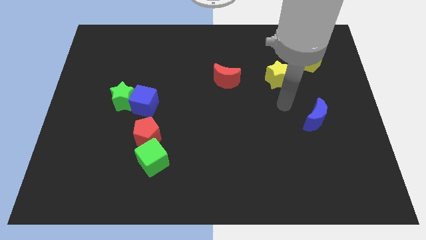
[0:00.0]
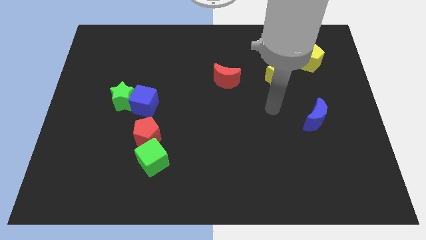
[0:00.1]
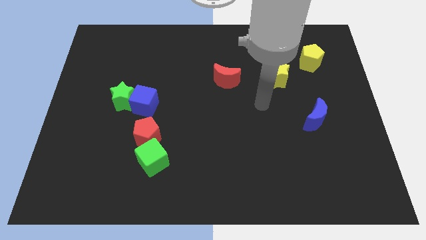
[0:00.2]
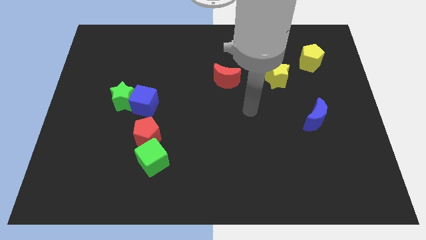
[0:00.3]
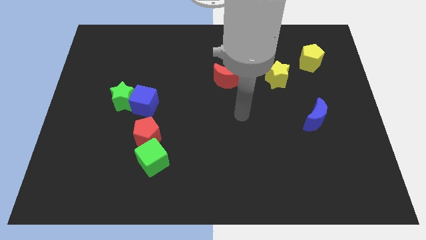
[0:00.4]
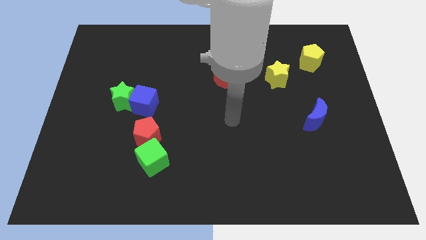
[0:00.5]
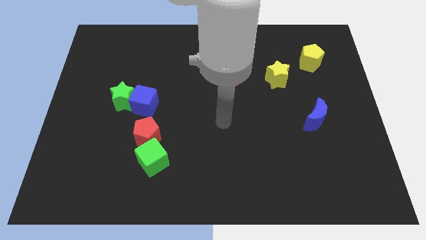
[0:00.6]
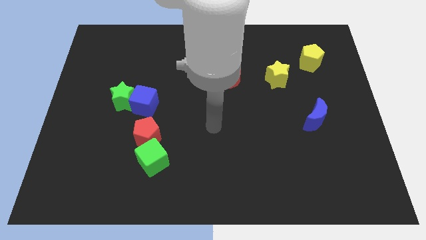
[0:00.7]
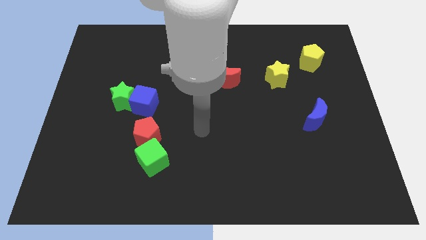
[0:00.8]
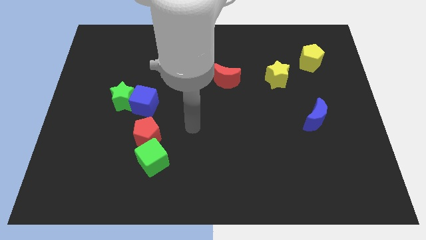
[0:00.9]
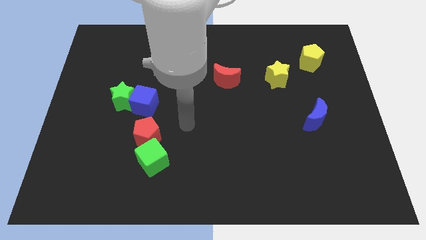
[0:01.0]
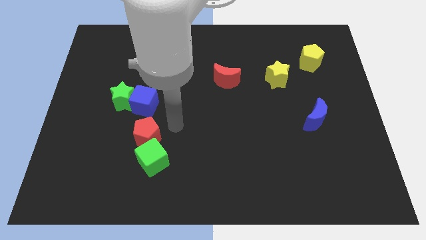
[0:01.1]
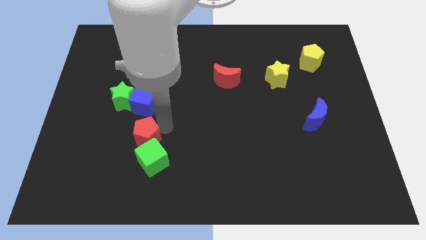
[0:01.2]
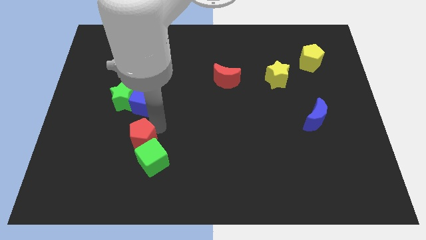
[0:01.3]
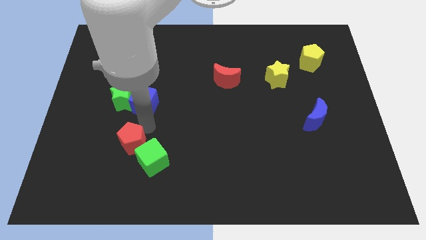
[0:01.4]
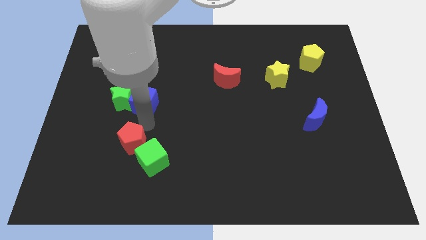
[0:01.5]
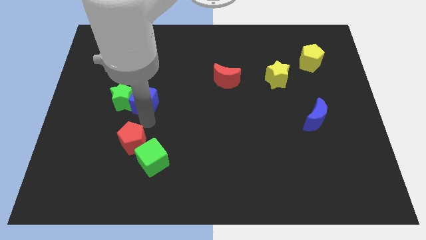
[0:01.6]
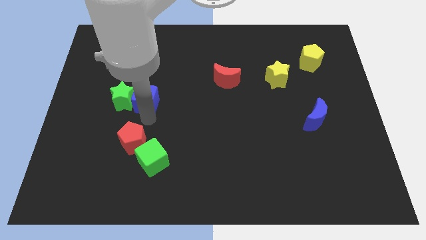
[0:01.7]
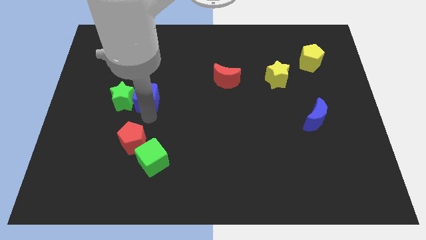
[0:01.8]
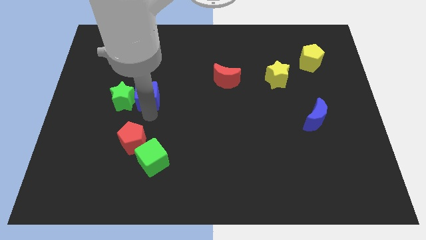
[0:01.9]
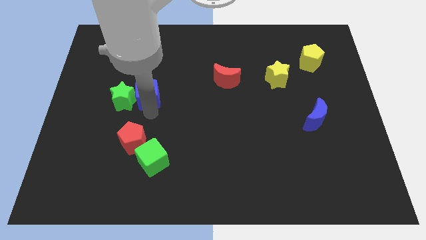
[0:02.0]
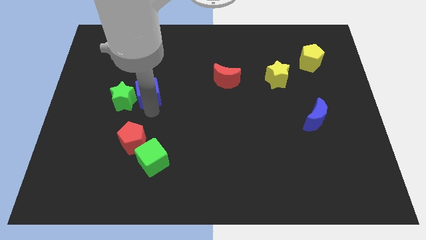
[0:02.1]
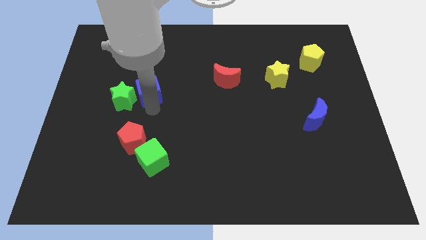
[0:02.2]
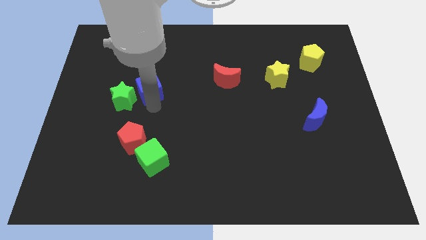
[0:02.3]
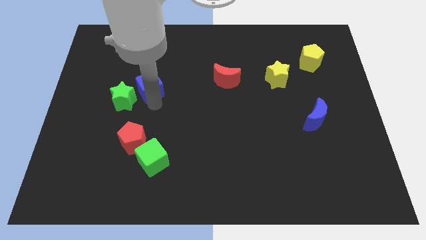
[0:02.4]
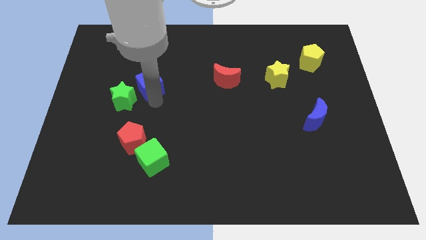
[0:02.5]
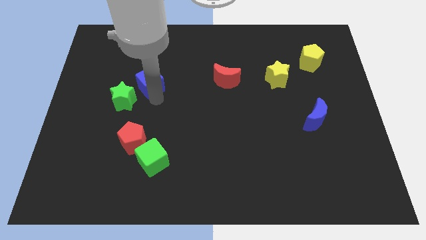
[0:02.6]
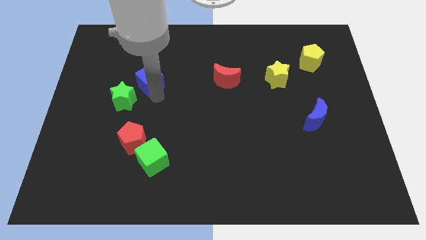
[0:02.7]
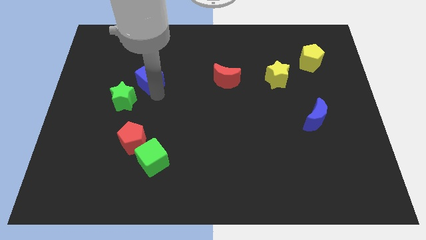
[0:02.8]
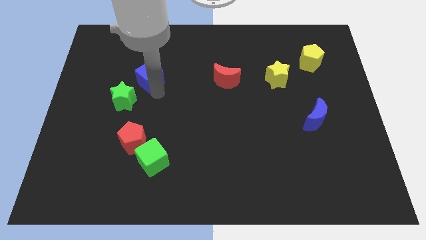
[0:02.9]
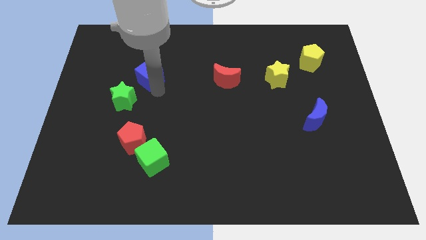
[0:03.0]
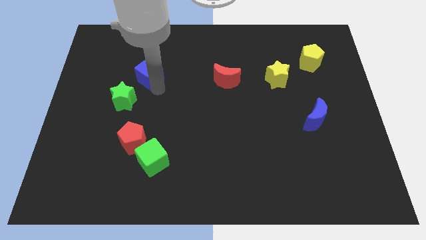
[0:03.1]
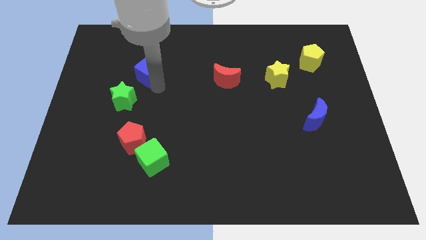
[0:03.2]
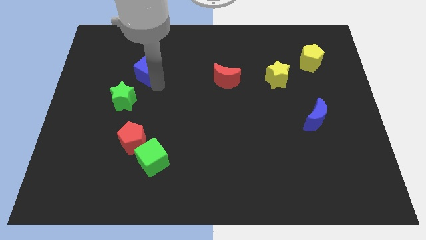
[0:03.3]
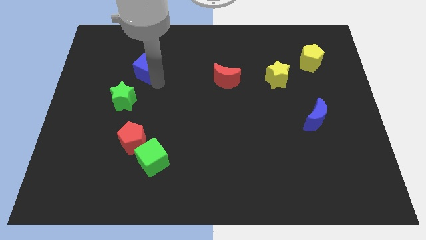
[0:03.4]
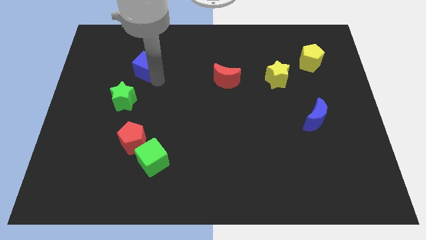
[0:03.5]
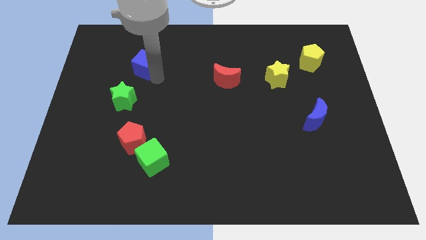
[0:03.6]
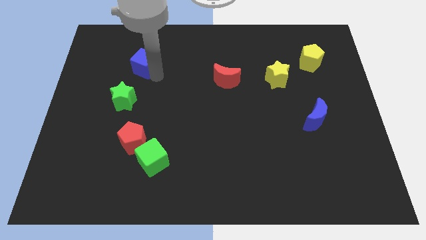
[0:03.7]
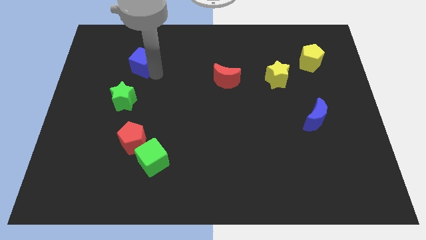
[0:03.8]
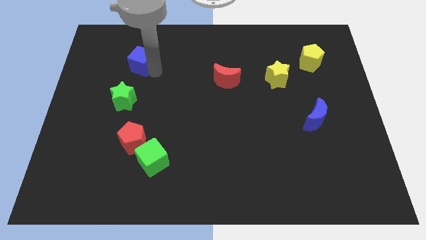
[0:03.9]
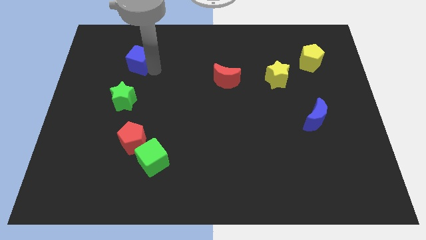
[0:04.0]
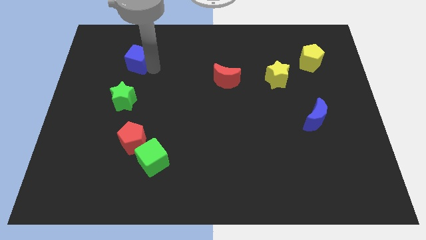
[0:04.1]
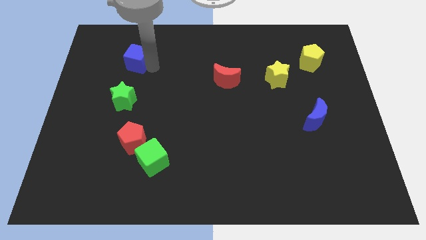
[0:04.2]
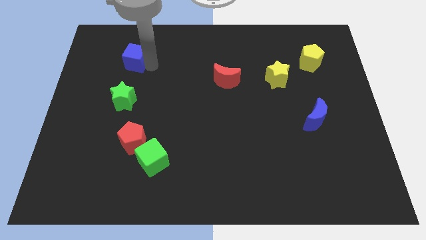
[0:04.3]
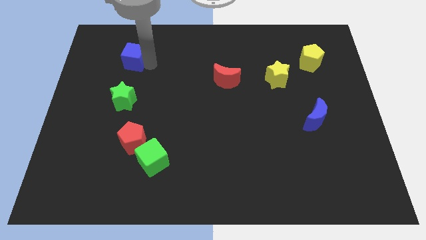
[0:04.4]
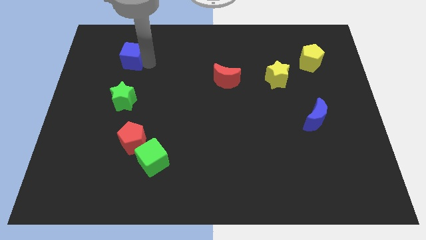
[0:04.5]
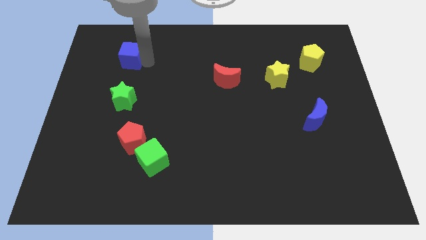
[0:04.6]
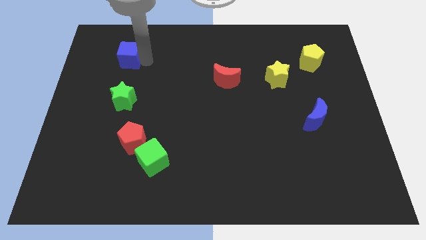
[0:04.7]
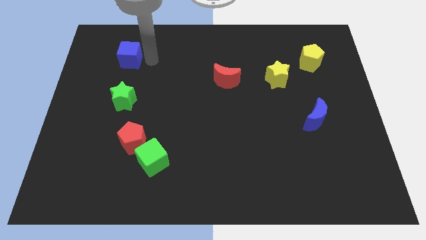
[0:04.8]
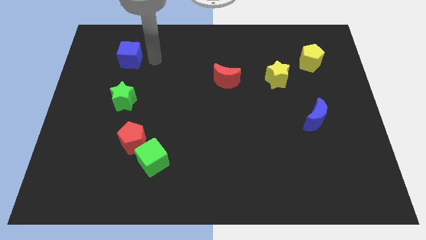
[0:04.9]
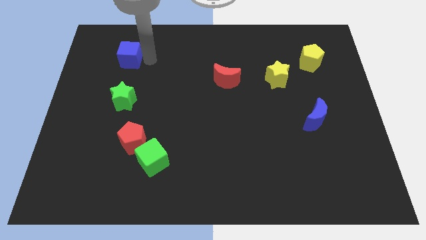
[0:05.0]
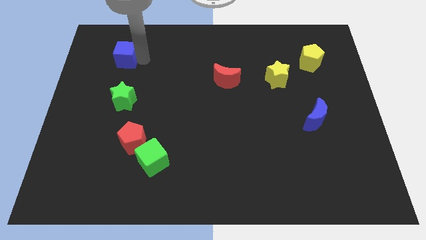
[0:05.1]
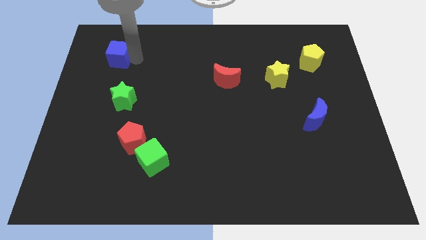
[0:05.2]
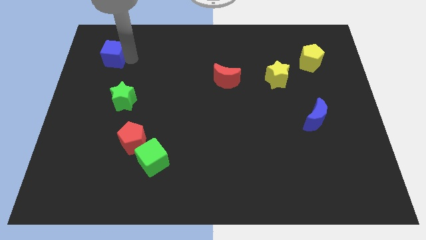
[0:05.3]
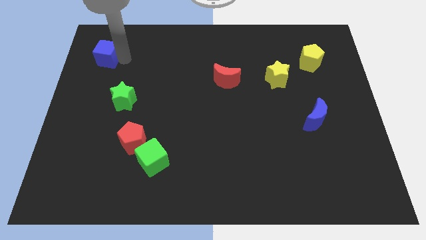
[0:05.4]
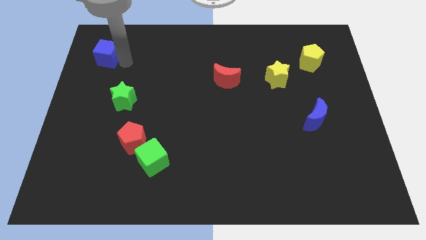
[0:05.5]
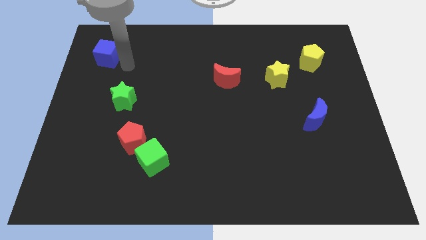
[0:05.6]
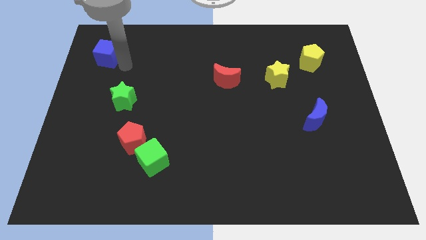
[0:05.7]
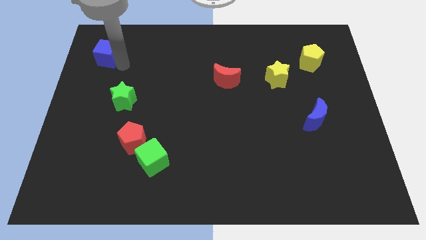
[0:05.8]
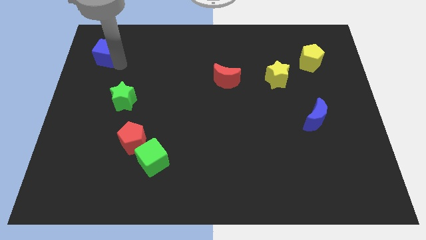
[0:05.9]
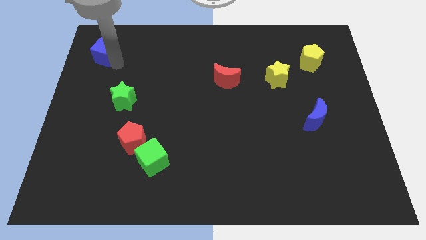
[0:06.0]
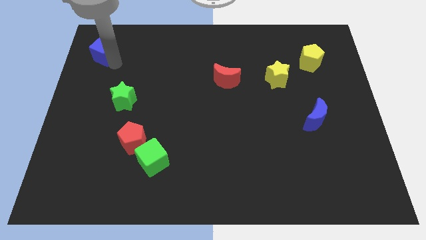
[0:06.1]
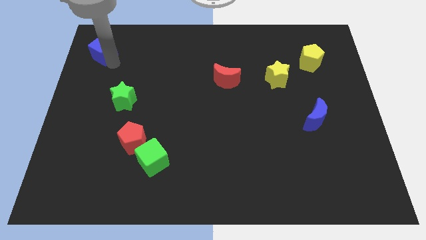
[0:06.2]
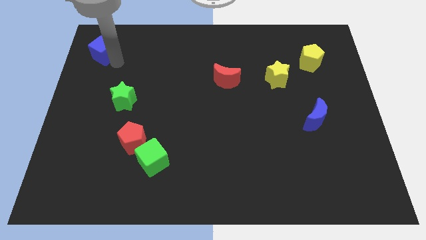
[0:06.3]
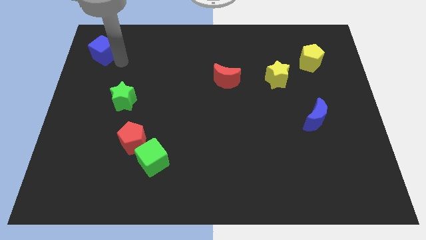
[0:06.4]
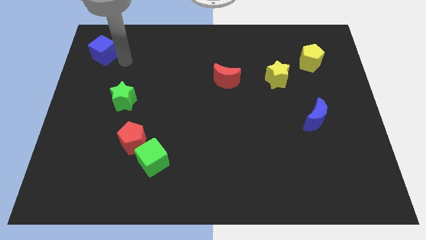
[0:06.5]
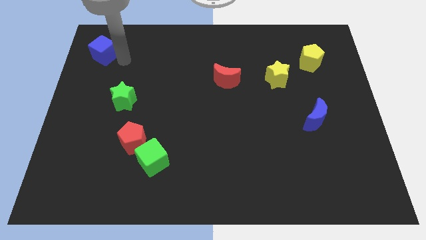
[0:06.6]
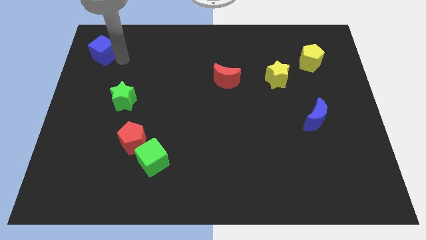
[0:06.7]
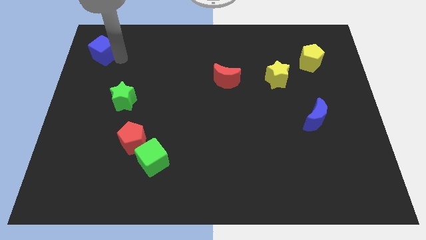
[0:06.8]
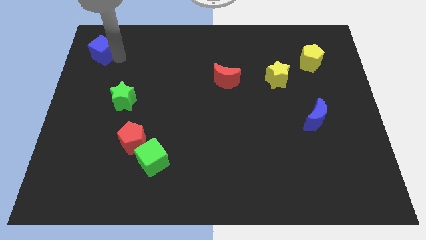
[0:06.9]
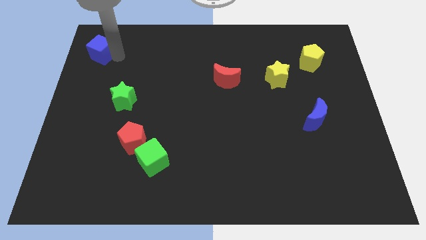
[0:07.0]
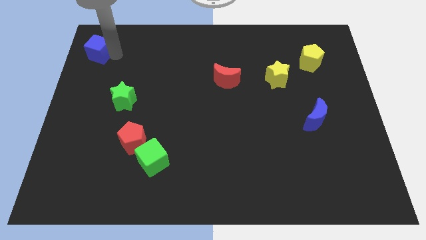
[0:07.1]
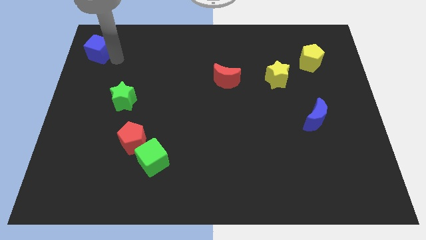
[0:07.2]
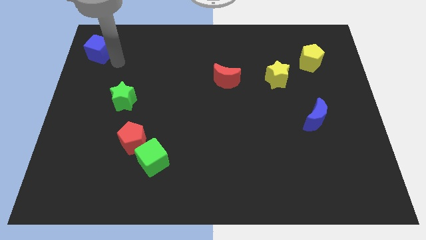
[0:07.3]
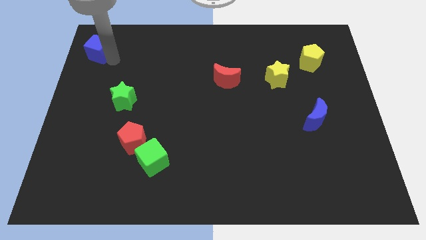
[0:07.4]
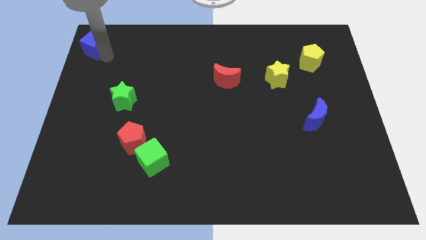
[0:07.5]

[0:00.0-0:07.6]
move the blue cube to the top left corner
